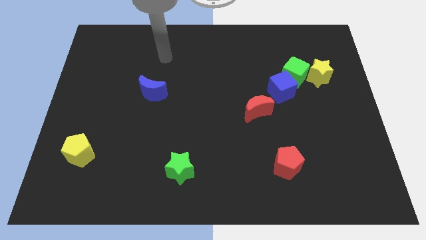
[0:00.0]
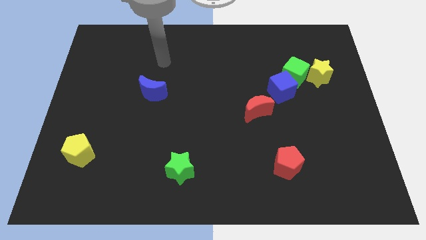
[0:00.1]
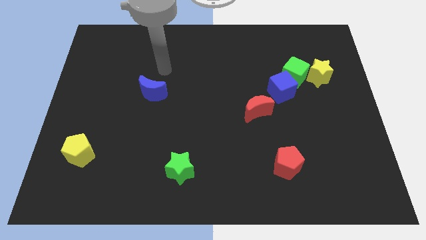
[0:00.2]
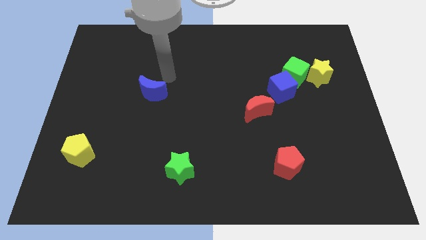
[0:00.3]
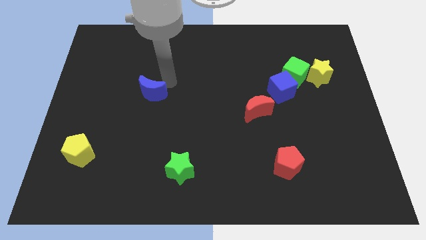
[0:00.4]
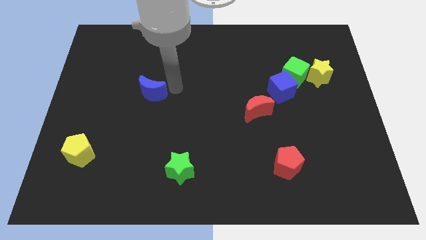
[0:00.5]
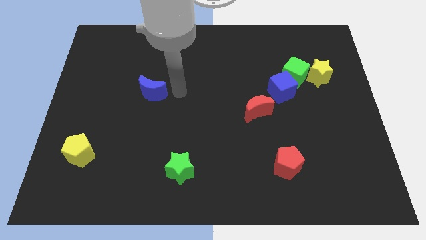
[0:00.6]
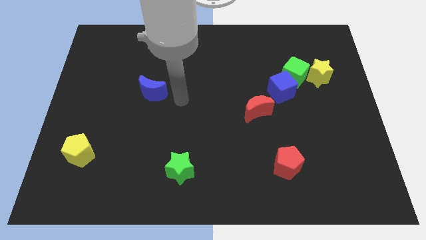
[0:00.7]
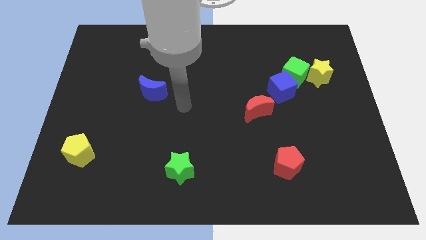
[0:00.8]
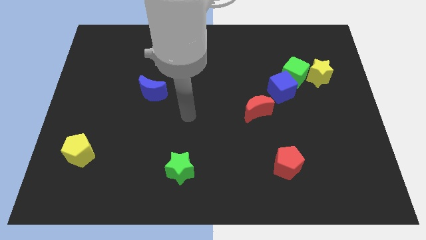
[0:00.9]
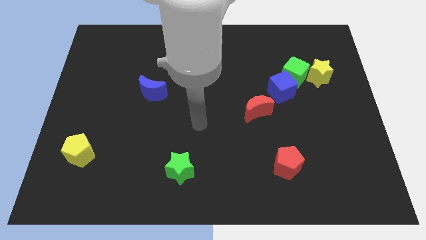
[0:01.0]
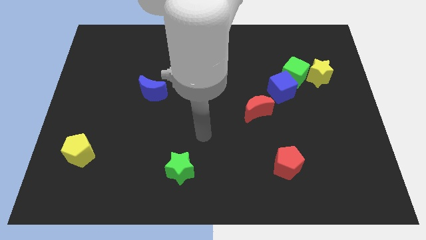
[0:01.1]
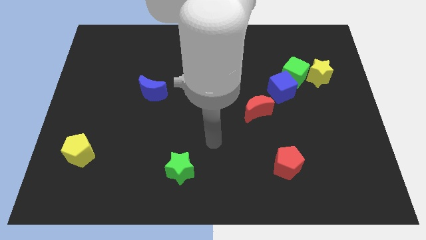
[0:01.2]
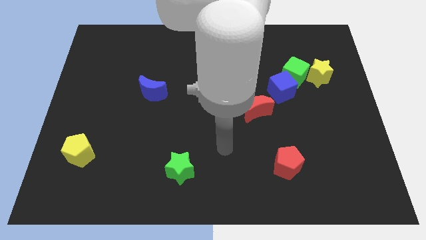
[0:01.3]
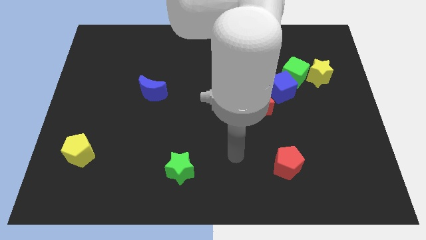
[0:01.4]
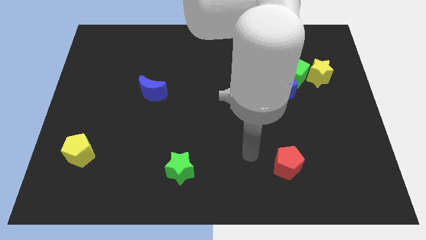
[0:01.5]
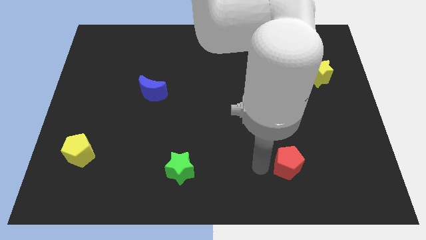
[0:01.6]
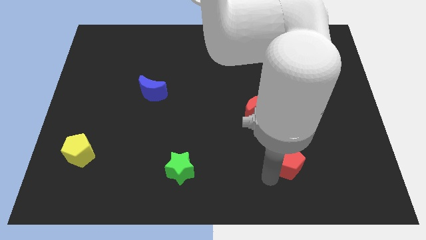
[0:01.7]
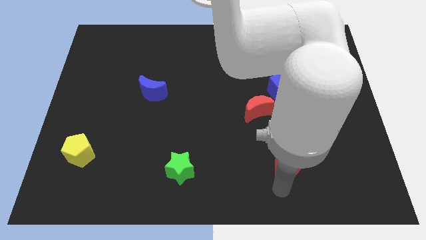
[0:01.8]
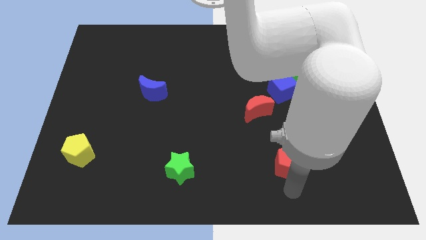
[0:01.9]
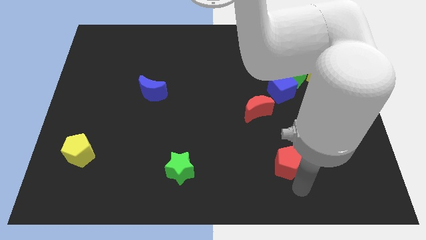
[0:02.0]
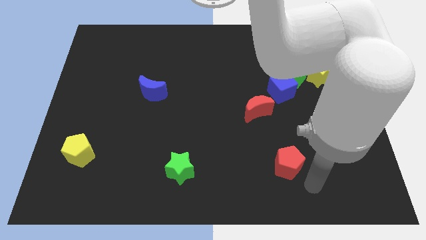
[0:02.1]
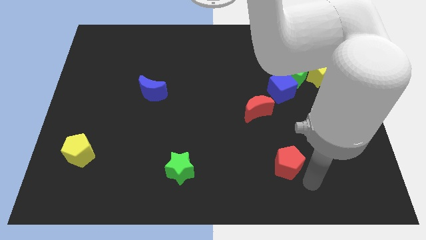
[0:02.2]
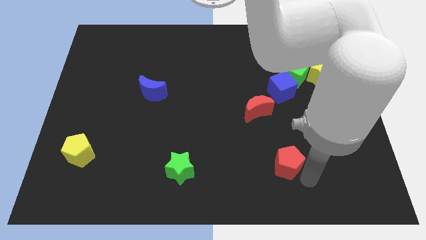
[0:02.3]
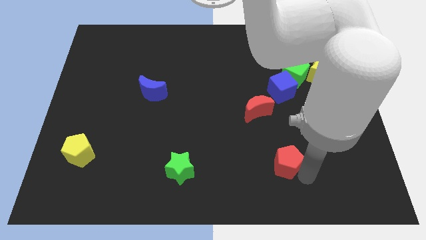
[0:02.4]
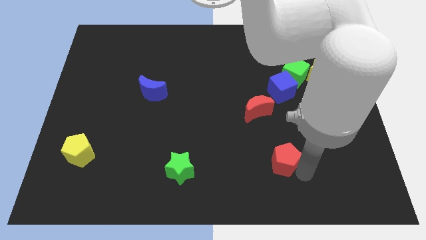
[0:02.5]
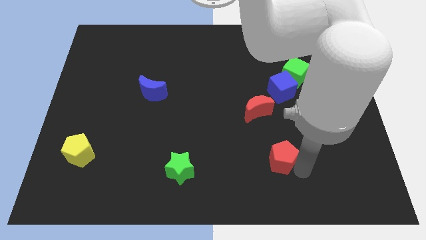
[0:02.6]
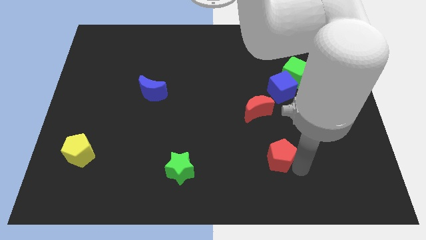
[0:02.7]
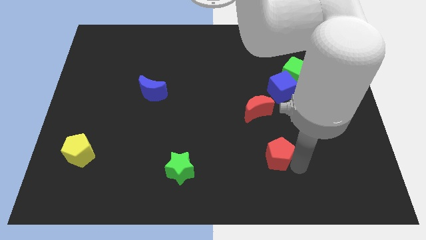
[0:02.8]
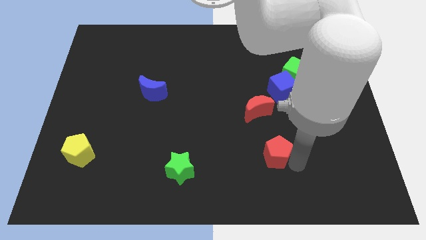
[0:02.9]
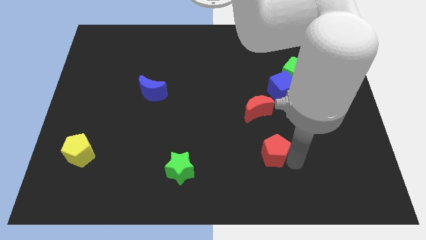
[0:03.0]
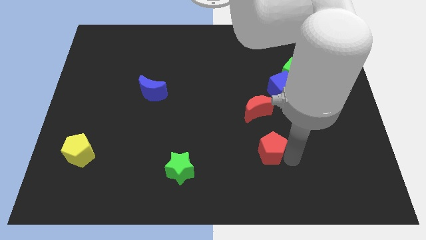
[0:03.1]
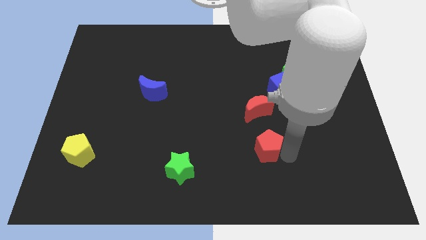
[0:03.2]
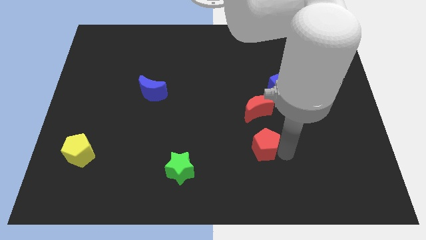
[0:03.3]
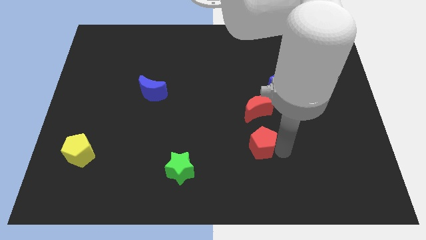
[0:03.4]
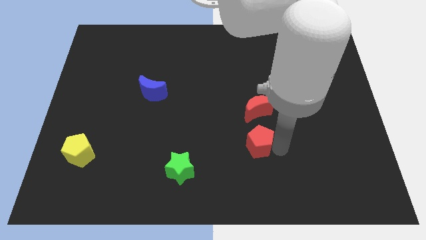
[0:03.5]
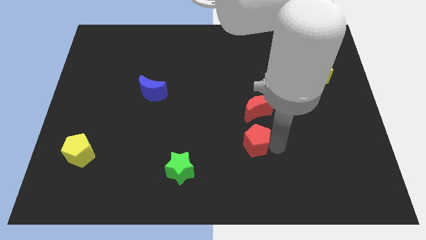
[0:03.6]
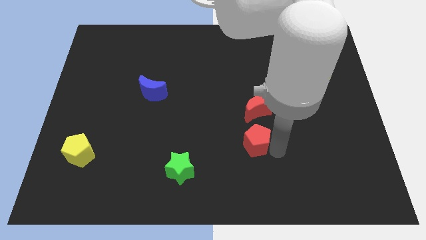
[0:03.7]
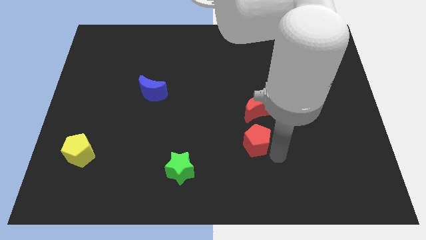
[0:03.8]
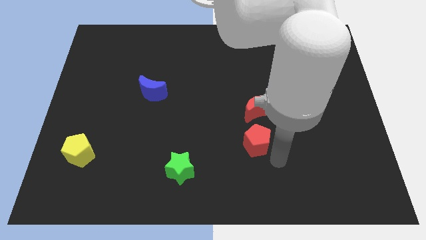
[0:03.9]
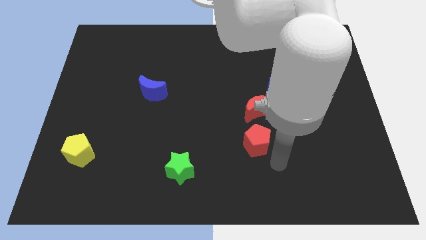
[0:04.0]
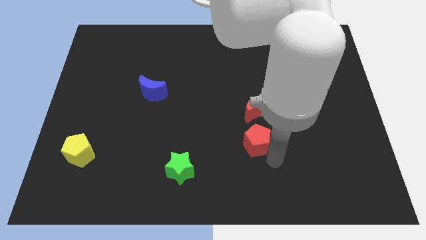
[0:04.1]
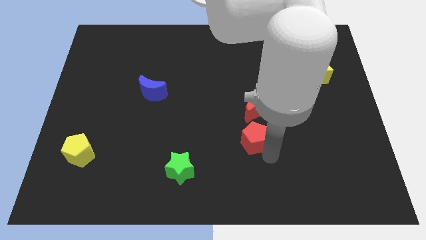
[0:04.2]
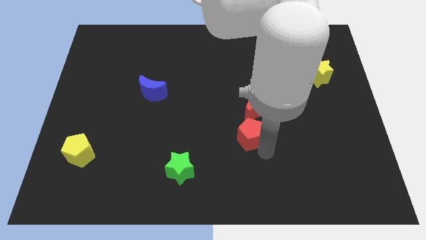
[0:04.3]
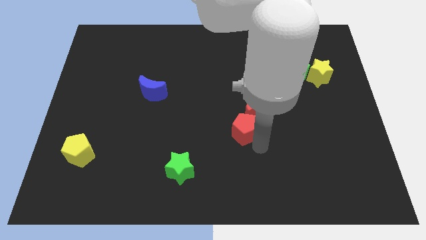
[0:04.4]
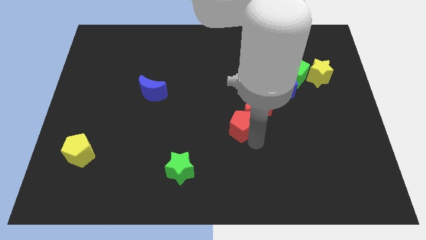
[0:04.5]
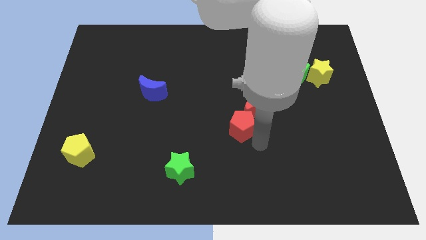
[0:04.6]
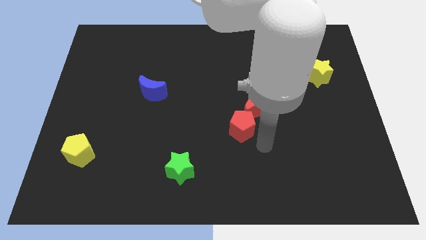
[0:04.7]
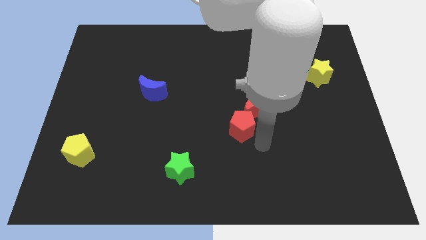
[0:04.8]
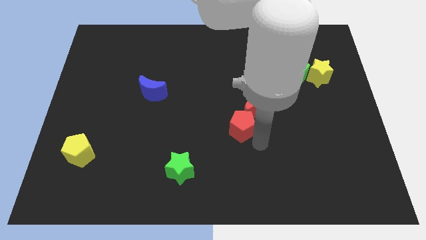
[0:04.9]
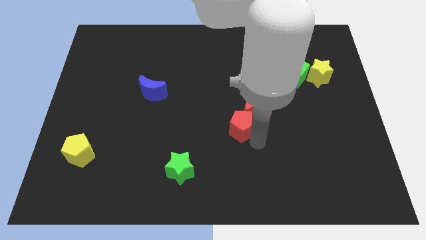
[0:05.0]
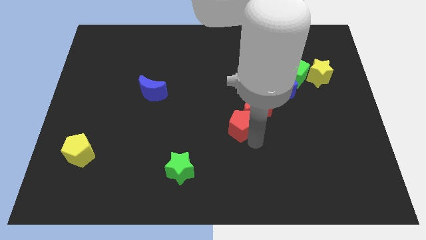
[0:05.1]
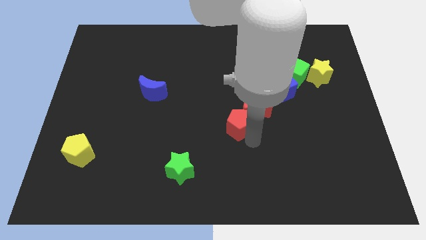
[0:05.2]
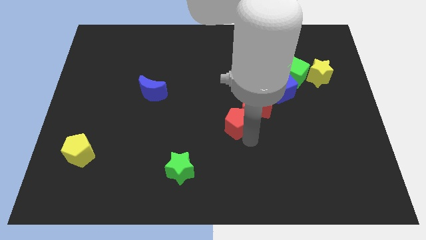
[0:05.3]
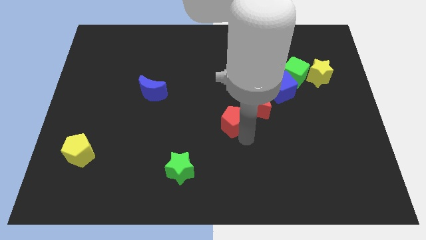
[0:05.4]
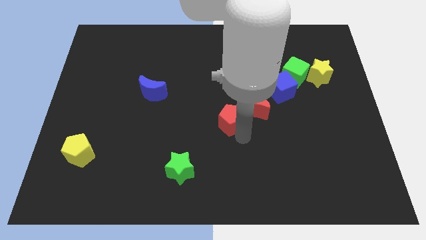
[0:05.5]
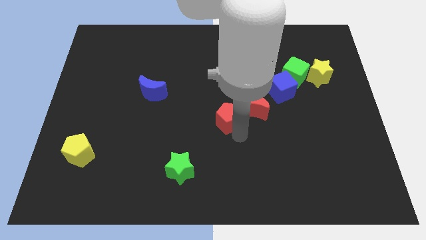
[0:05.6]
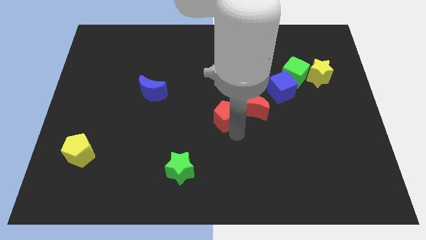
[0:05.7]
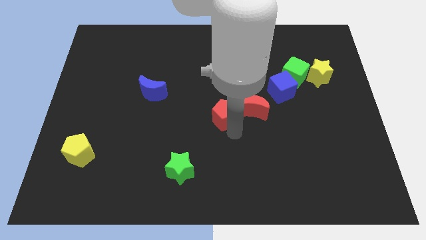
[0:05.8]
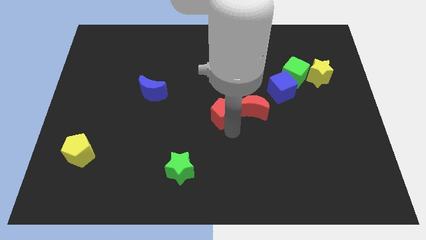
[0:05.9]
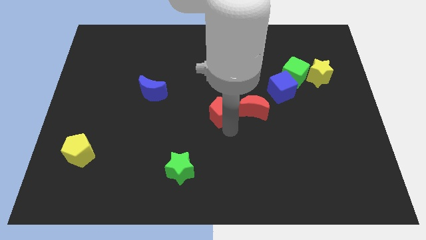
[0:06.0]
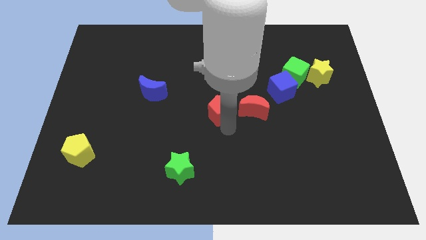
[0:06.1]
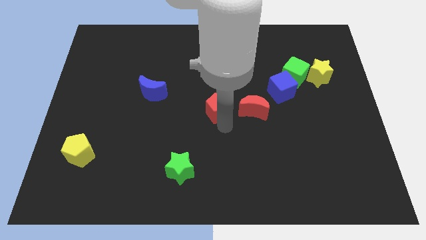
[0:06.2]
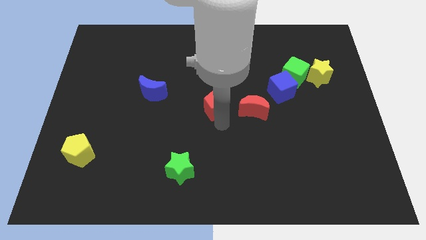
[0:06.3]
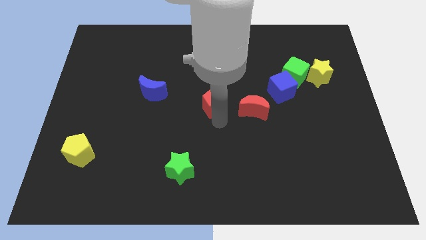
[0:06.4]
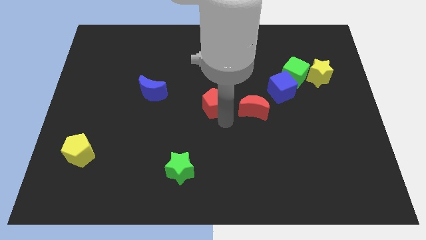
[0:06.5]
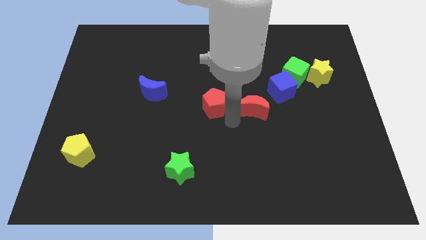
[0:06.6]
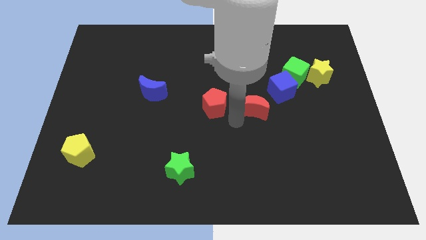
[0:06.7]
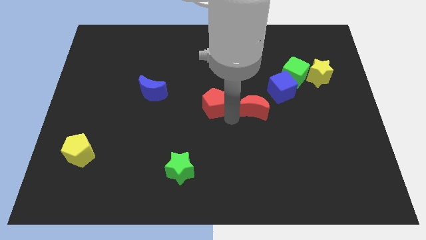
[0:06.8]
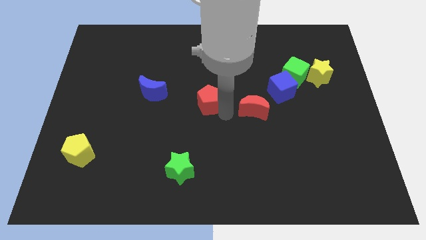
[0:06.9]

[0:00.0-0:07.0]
put the red pentagon just right of the blue moon

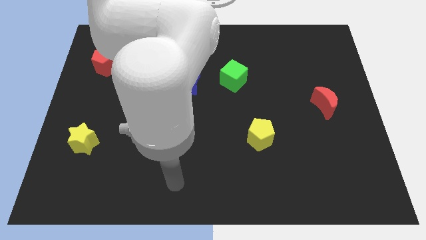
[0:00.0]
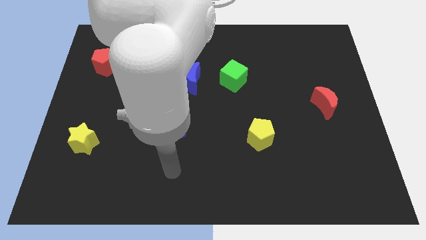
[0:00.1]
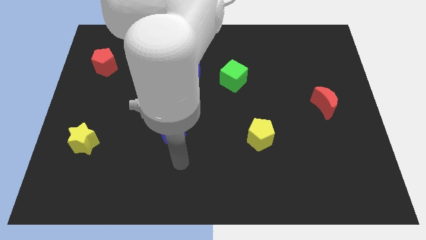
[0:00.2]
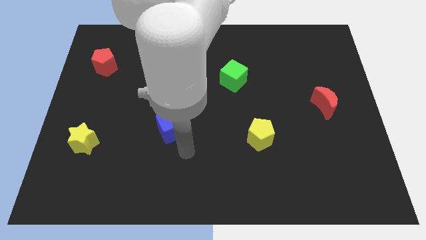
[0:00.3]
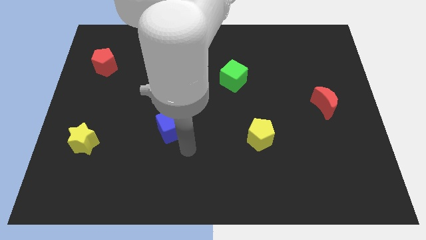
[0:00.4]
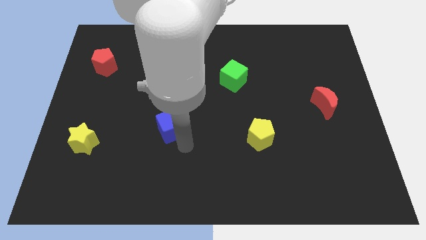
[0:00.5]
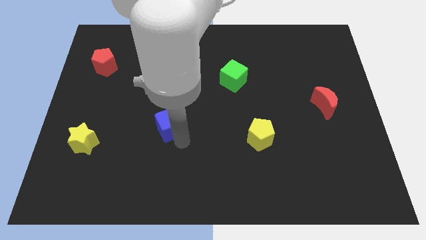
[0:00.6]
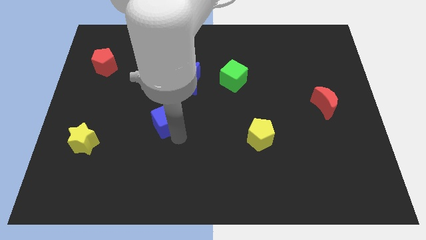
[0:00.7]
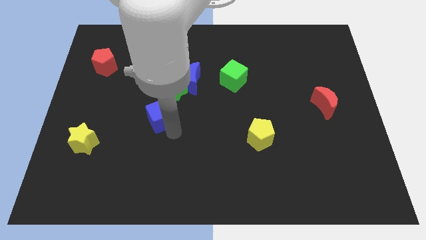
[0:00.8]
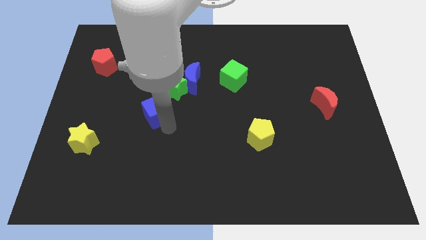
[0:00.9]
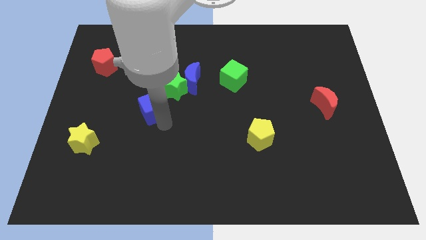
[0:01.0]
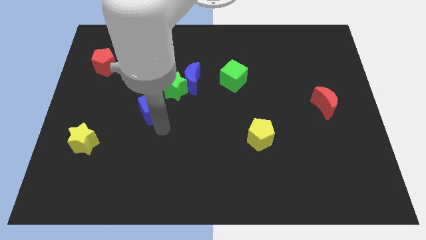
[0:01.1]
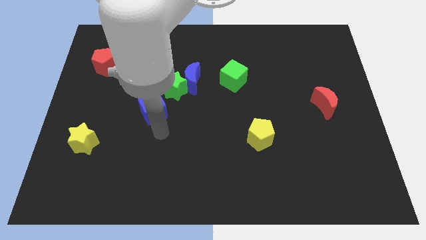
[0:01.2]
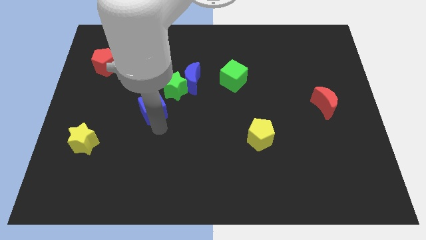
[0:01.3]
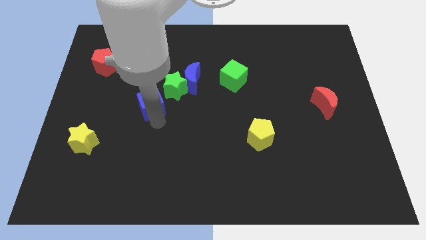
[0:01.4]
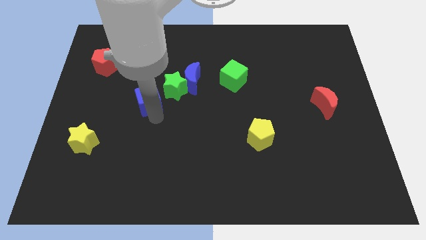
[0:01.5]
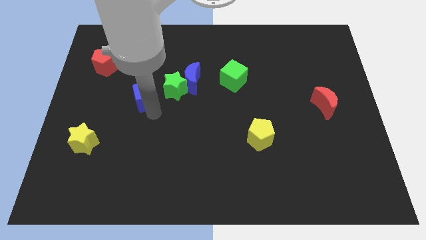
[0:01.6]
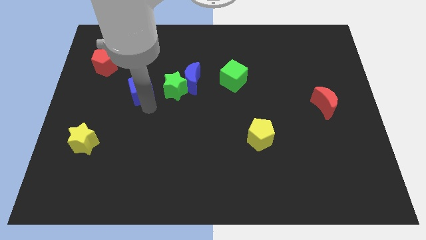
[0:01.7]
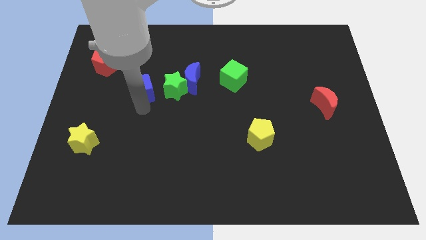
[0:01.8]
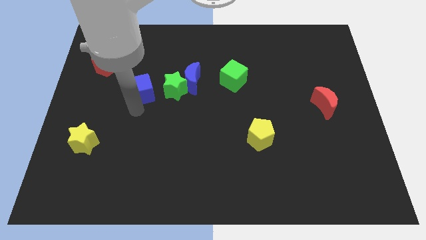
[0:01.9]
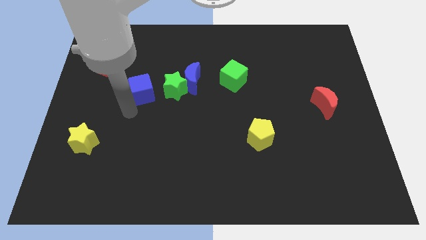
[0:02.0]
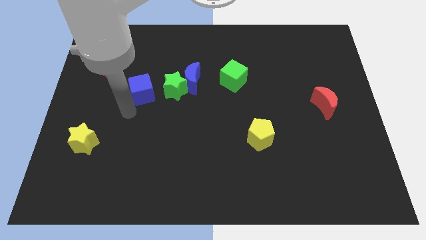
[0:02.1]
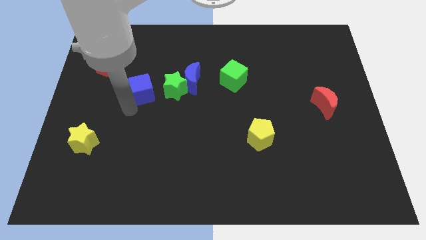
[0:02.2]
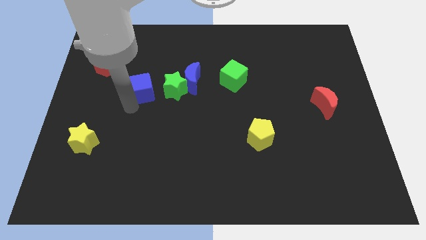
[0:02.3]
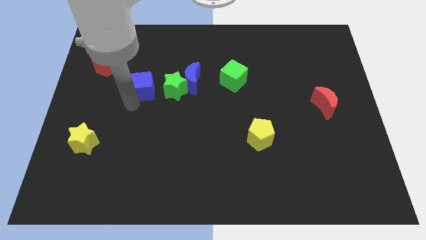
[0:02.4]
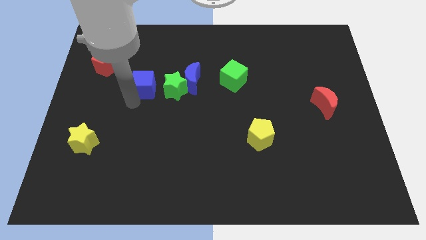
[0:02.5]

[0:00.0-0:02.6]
push the blue cube diagonally up and to the left of the green star
